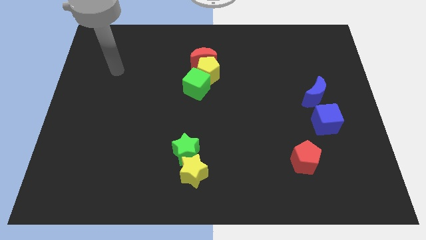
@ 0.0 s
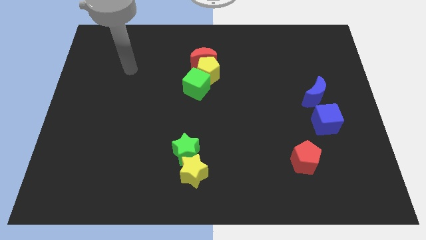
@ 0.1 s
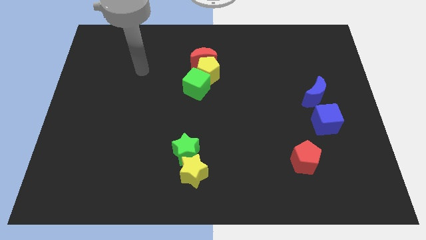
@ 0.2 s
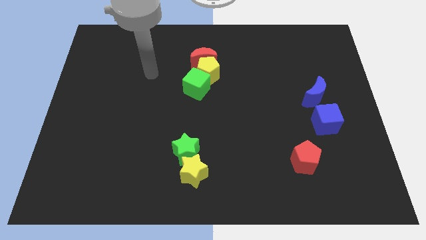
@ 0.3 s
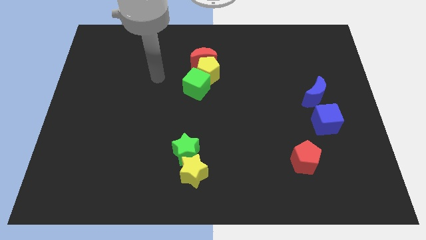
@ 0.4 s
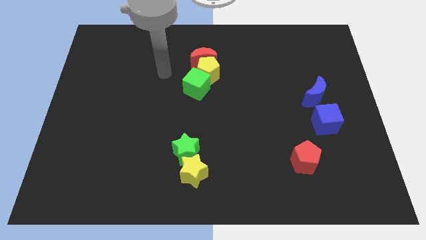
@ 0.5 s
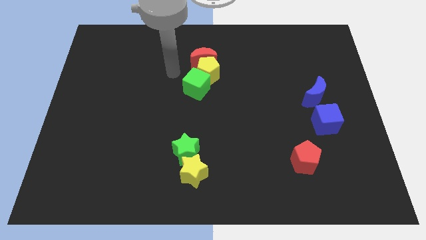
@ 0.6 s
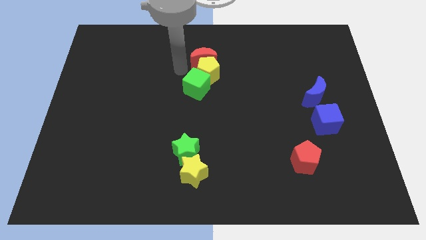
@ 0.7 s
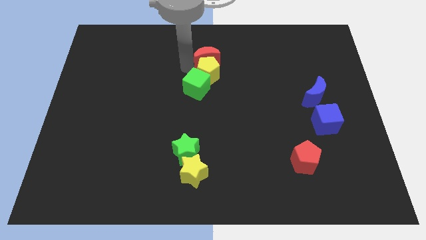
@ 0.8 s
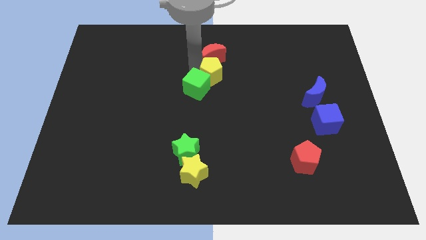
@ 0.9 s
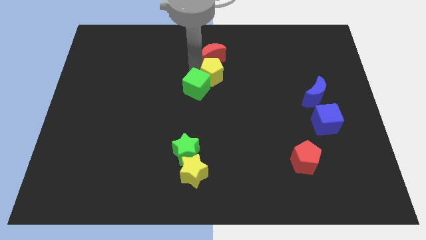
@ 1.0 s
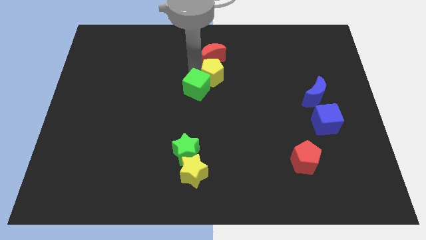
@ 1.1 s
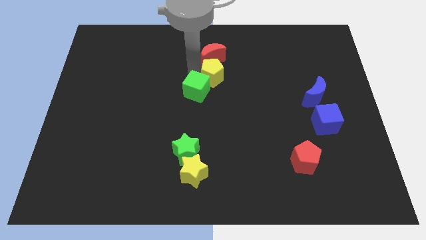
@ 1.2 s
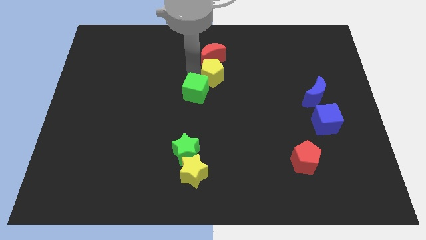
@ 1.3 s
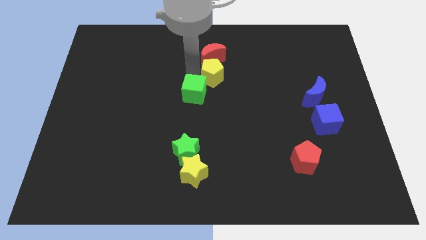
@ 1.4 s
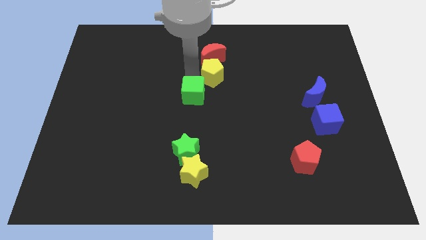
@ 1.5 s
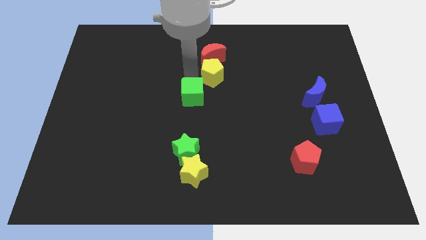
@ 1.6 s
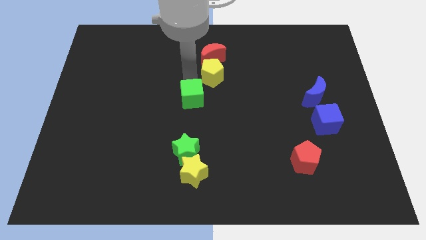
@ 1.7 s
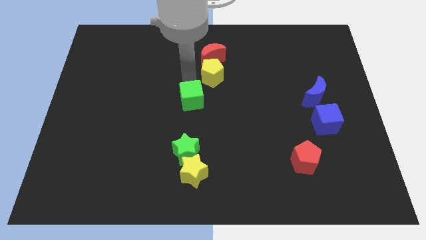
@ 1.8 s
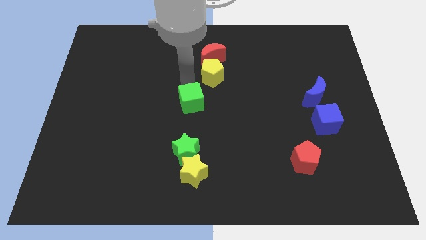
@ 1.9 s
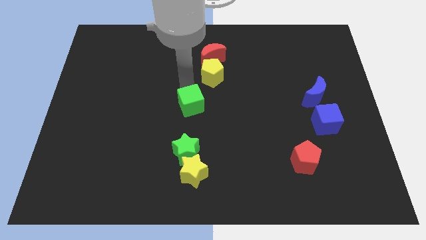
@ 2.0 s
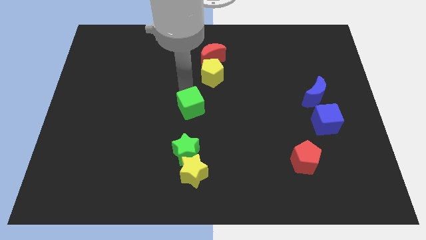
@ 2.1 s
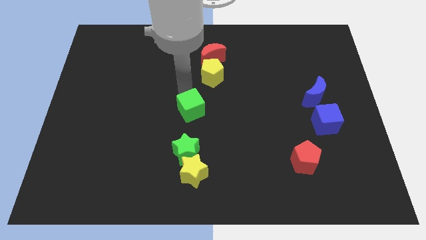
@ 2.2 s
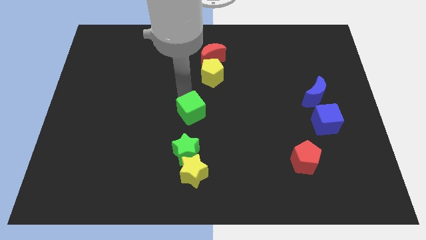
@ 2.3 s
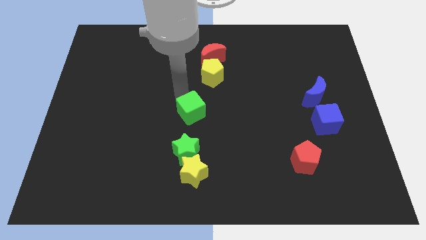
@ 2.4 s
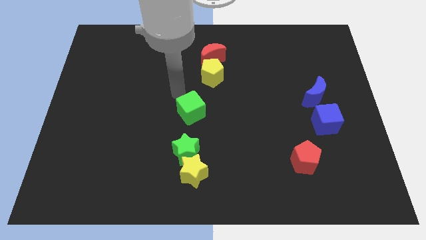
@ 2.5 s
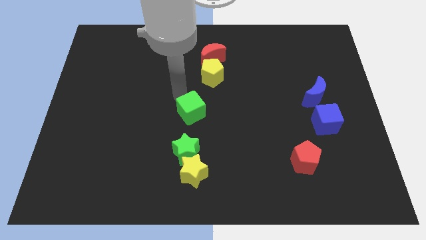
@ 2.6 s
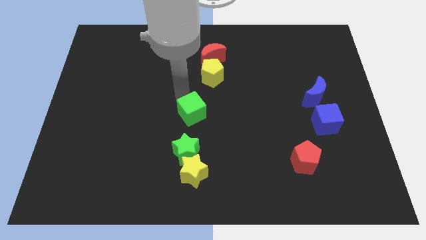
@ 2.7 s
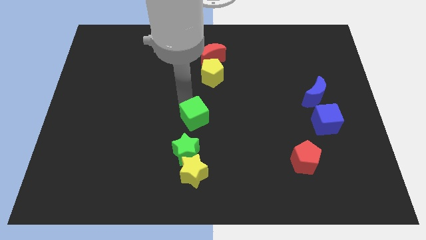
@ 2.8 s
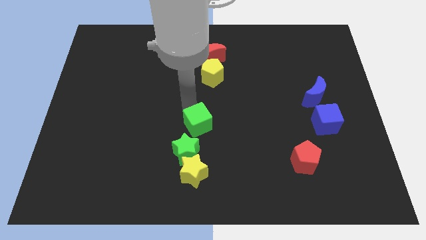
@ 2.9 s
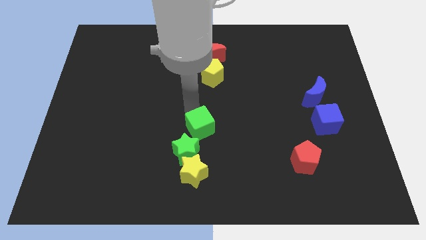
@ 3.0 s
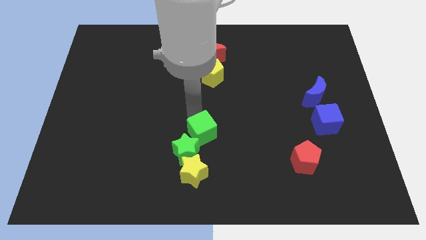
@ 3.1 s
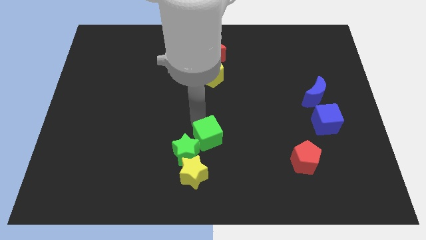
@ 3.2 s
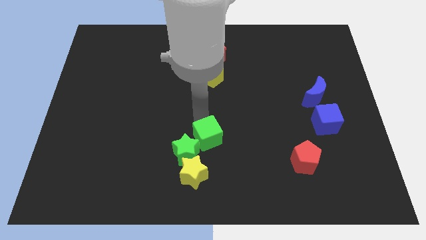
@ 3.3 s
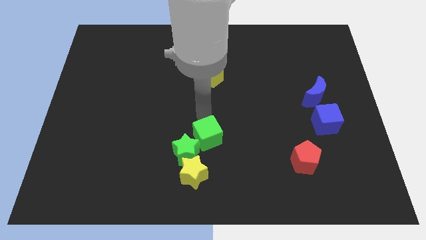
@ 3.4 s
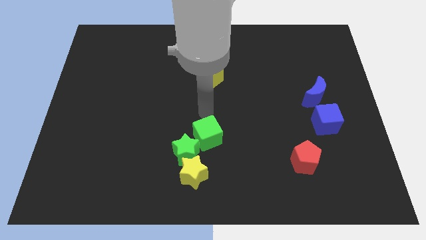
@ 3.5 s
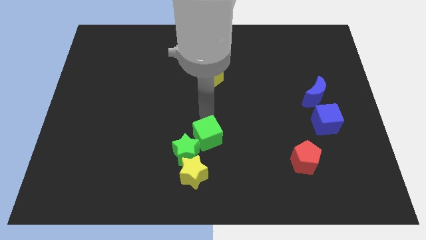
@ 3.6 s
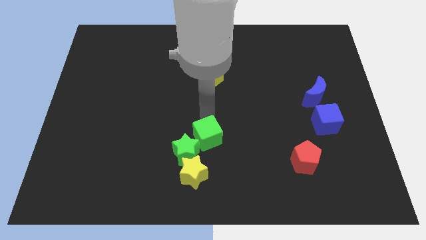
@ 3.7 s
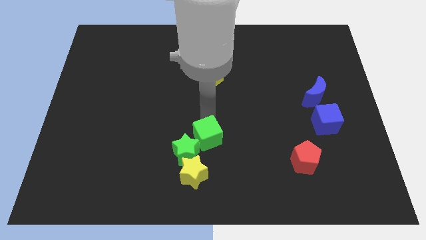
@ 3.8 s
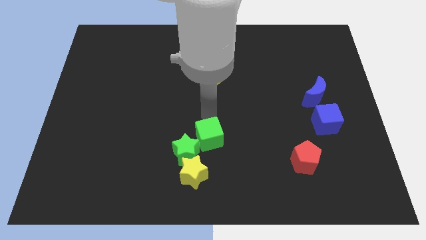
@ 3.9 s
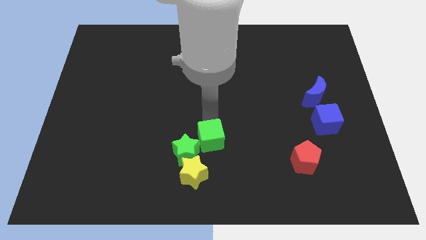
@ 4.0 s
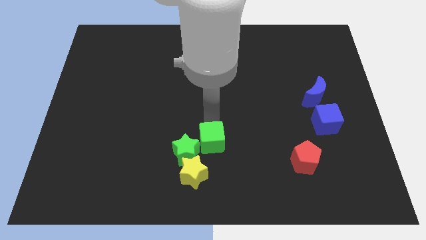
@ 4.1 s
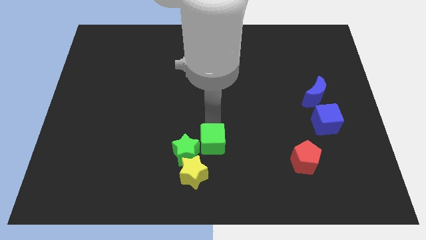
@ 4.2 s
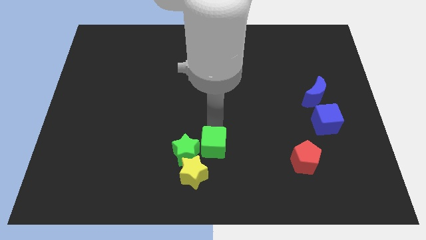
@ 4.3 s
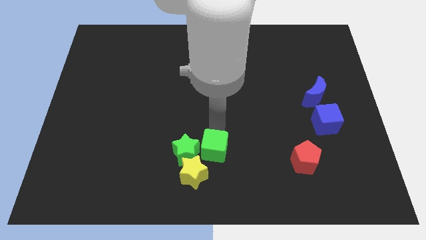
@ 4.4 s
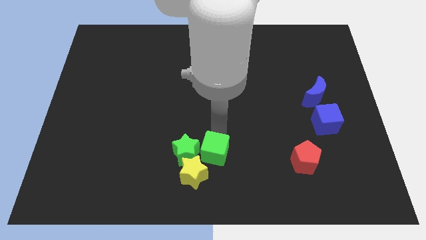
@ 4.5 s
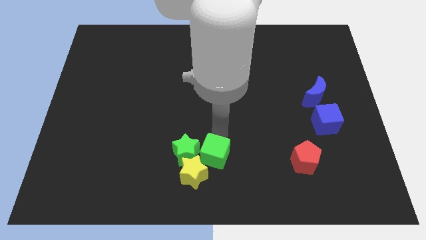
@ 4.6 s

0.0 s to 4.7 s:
push the green cube close to the yellow star

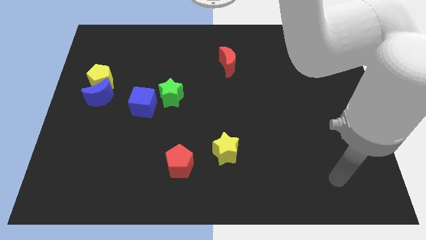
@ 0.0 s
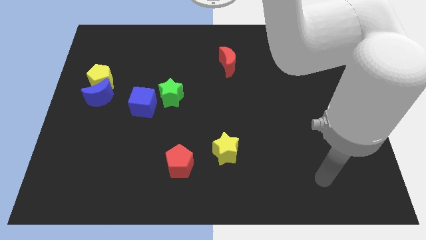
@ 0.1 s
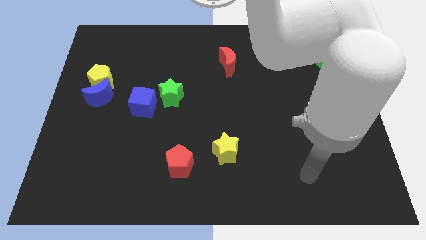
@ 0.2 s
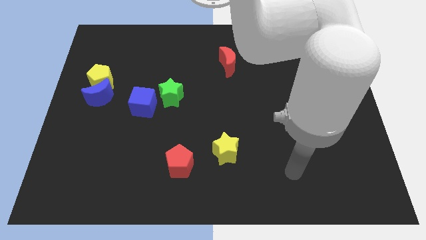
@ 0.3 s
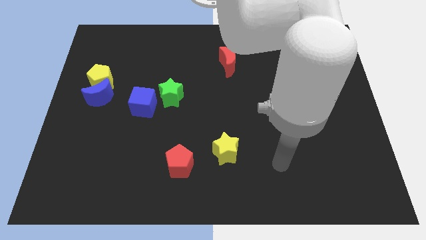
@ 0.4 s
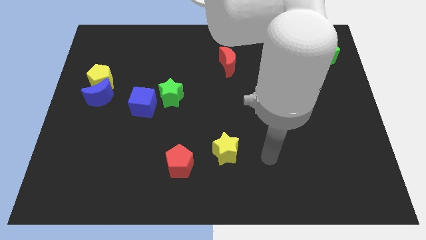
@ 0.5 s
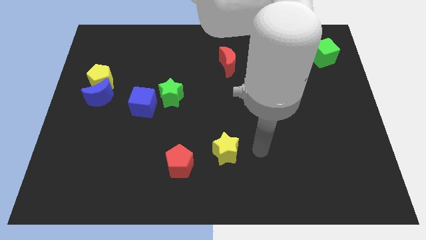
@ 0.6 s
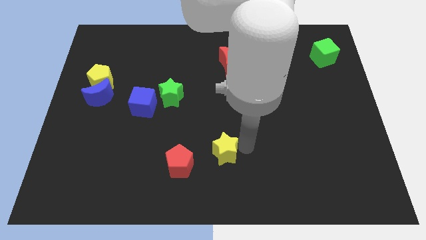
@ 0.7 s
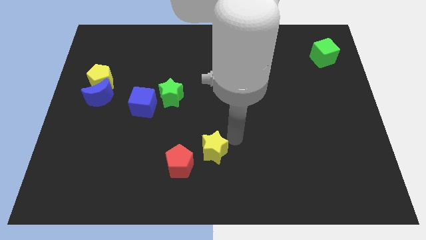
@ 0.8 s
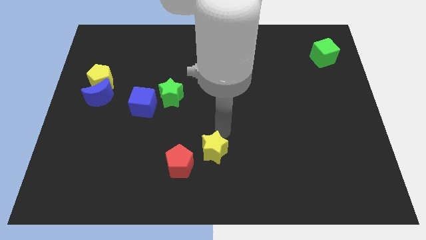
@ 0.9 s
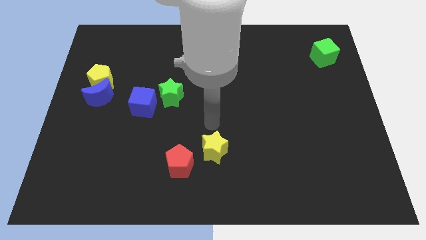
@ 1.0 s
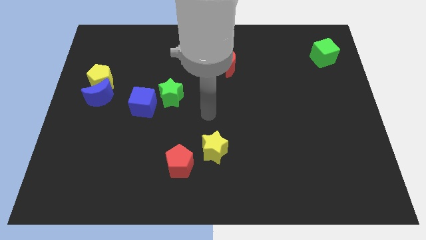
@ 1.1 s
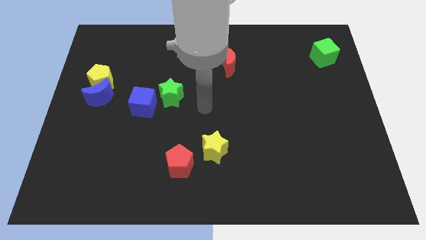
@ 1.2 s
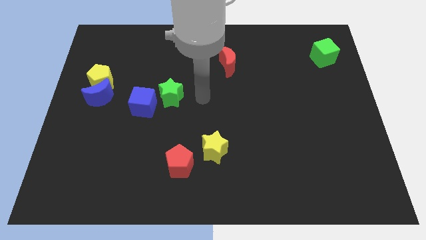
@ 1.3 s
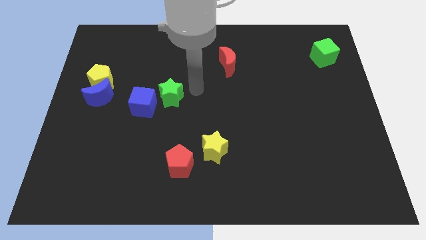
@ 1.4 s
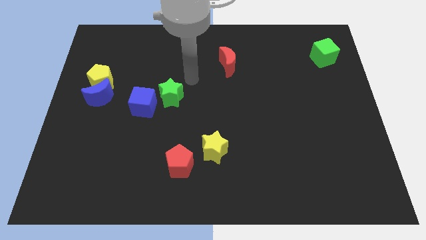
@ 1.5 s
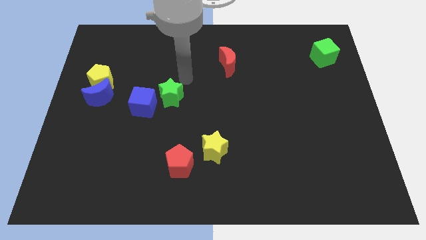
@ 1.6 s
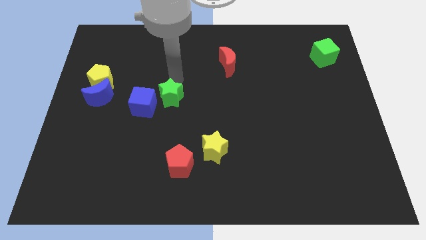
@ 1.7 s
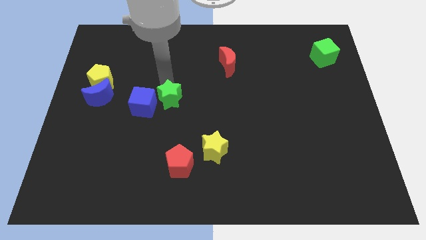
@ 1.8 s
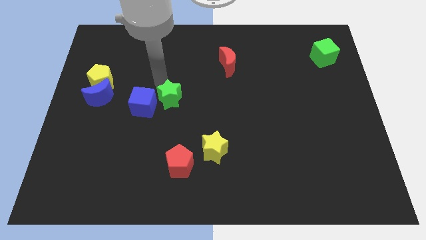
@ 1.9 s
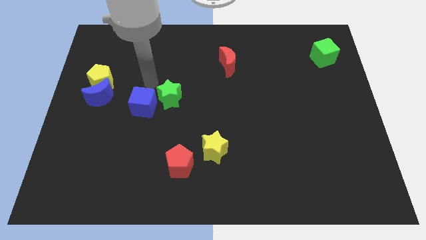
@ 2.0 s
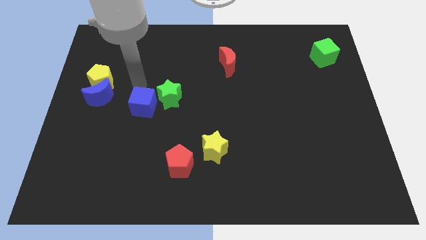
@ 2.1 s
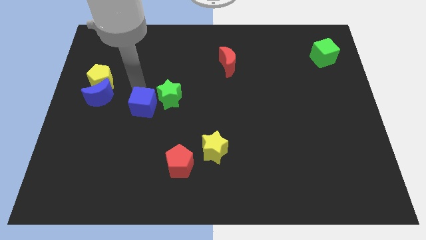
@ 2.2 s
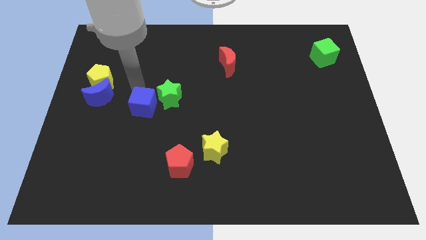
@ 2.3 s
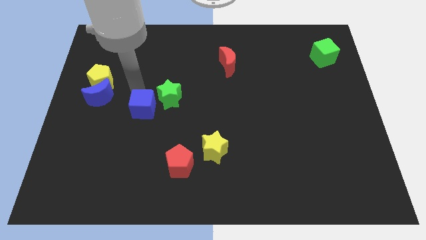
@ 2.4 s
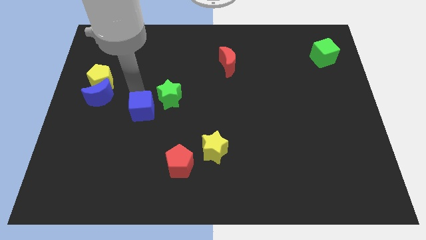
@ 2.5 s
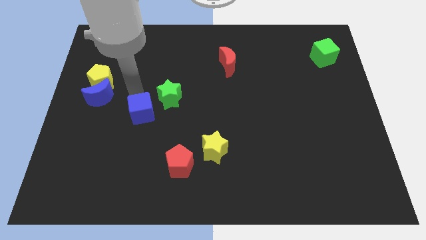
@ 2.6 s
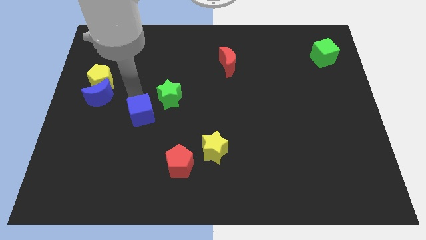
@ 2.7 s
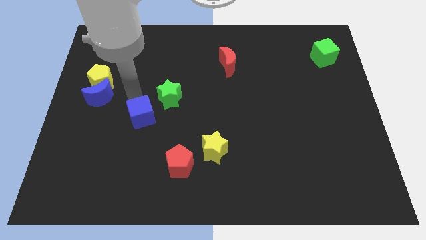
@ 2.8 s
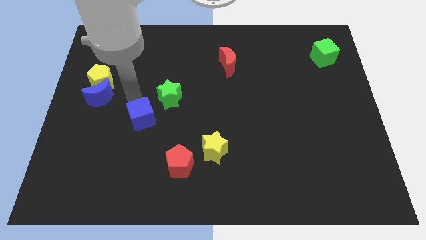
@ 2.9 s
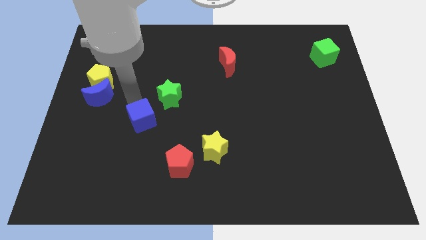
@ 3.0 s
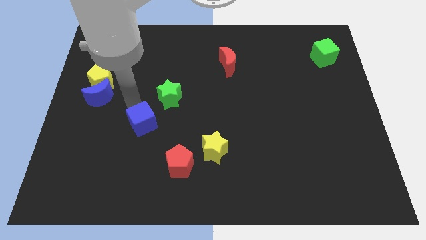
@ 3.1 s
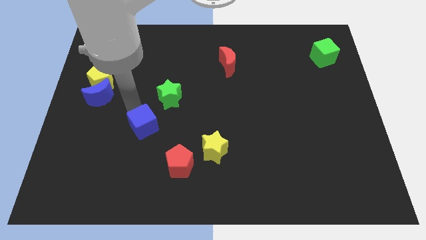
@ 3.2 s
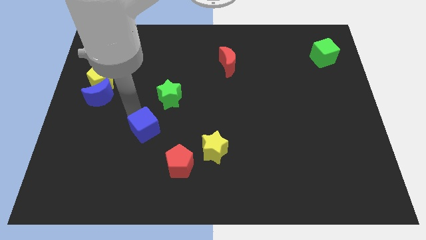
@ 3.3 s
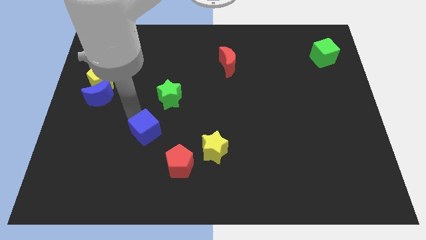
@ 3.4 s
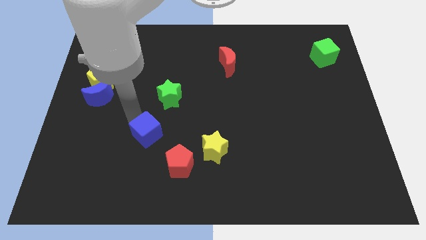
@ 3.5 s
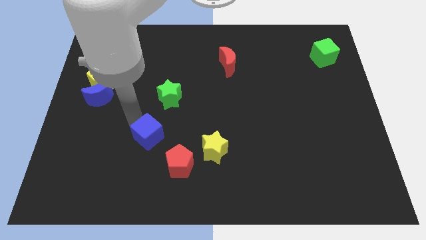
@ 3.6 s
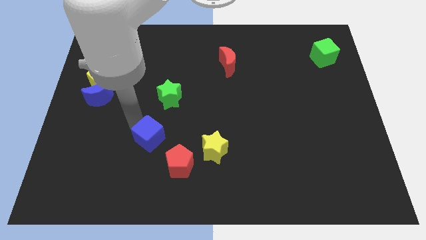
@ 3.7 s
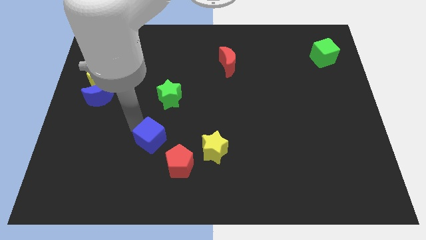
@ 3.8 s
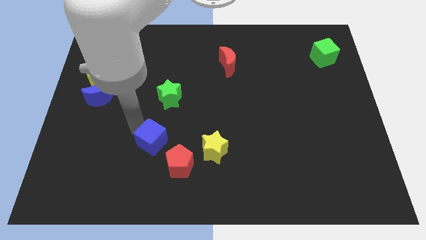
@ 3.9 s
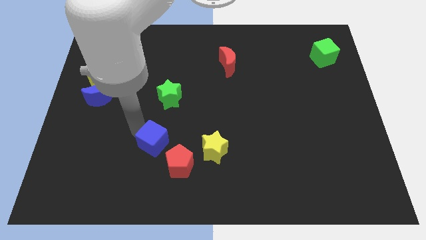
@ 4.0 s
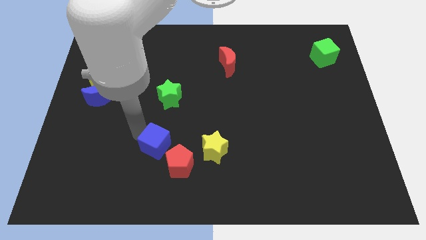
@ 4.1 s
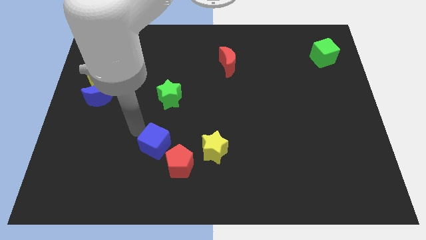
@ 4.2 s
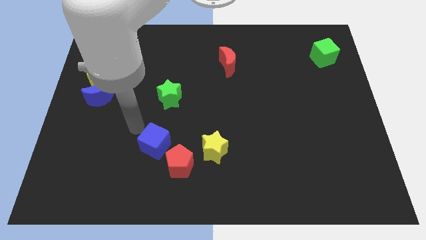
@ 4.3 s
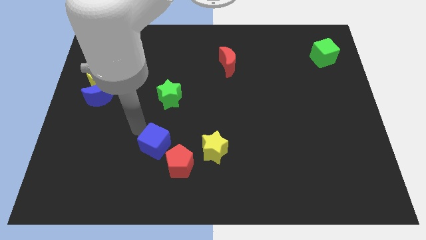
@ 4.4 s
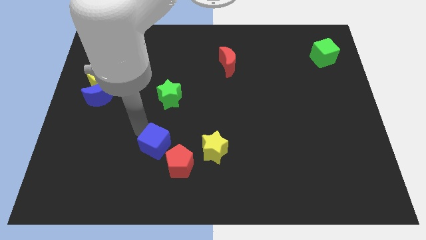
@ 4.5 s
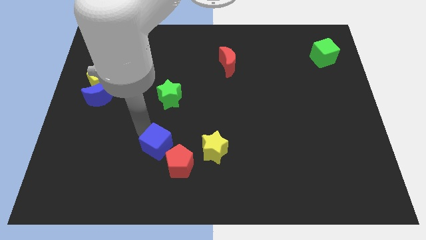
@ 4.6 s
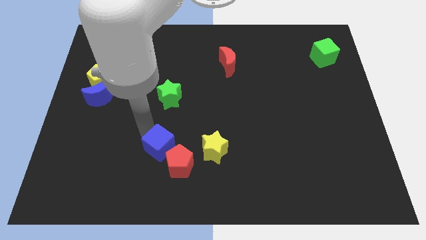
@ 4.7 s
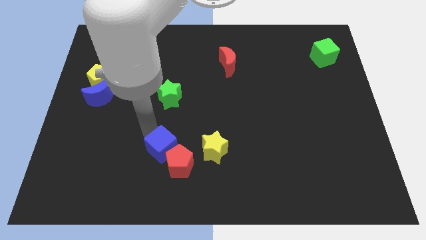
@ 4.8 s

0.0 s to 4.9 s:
slide the blue cube next to the red pentagon
